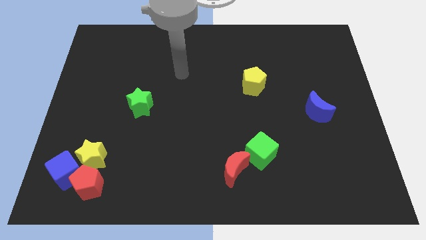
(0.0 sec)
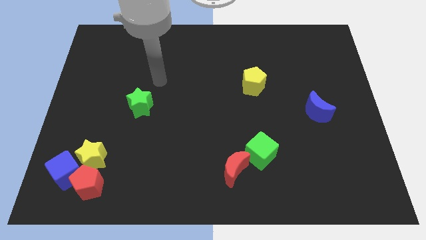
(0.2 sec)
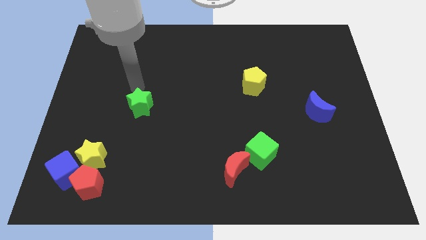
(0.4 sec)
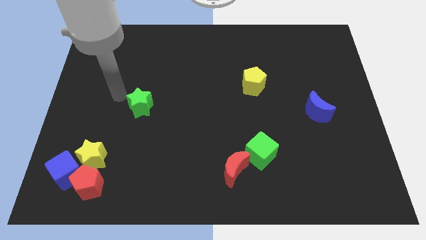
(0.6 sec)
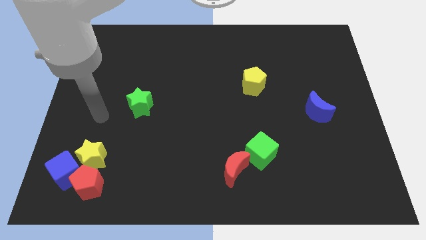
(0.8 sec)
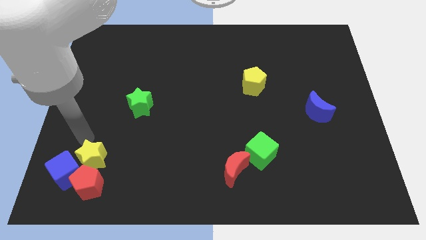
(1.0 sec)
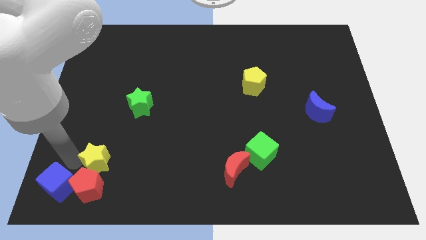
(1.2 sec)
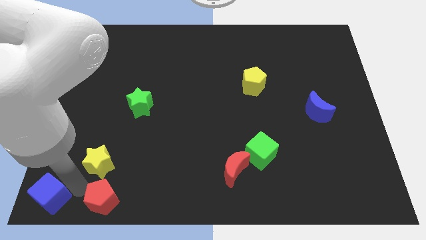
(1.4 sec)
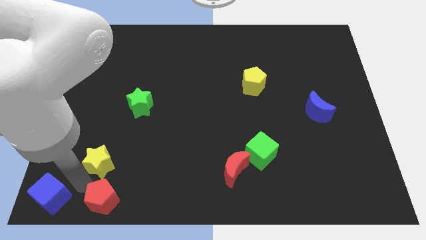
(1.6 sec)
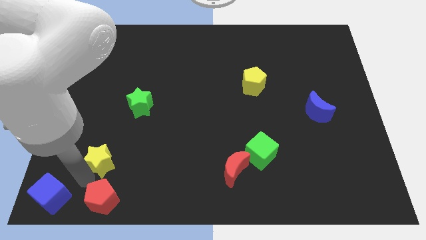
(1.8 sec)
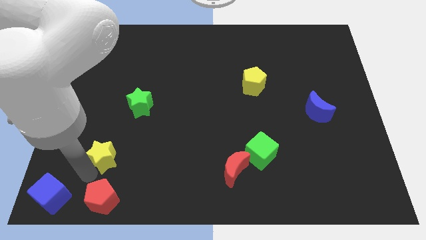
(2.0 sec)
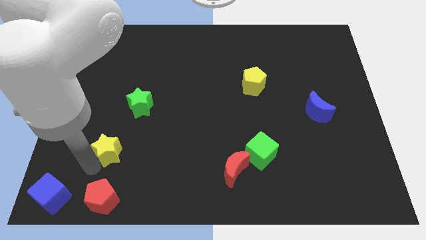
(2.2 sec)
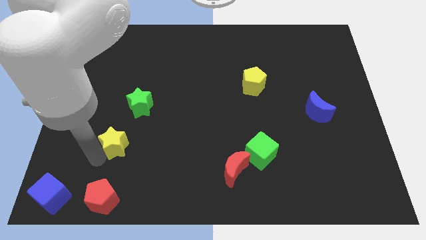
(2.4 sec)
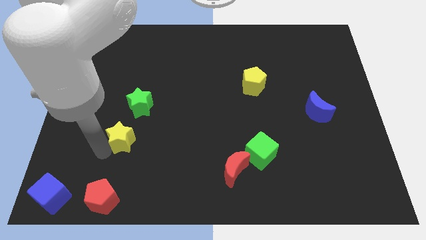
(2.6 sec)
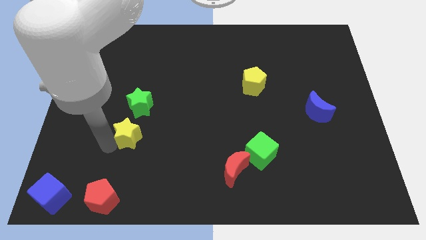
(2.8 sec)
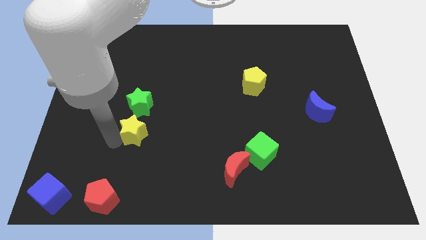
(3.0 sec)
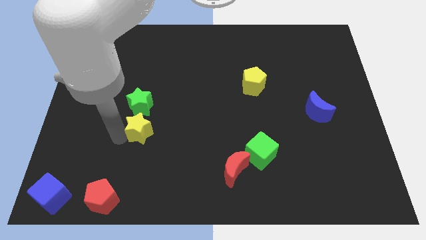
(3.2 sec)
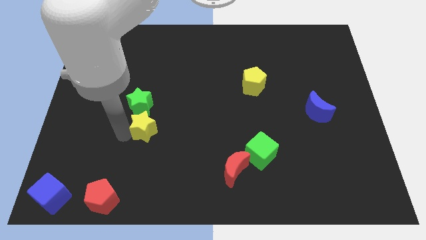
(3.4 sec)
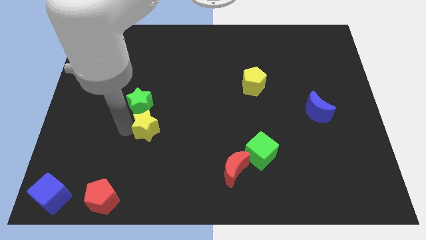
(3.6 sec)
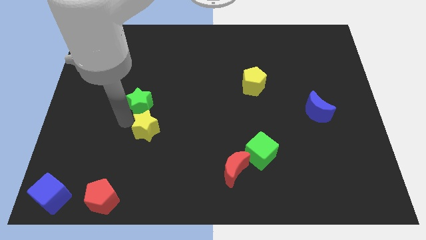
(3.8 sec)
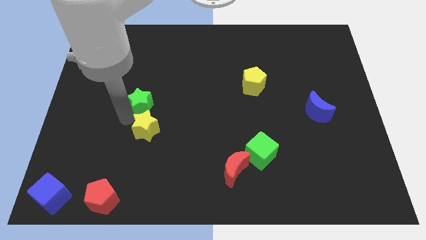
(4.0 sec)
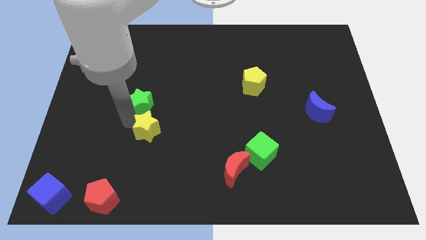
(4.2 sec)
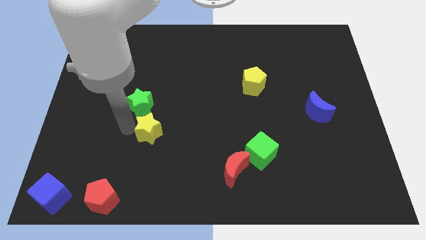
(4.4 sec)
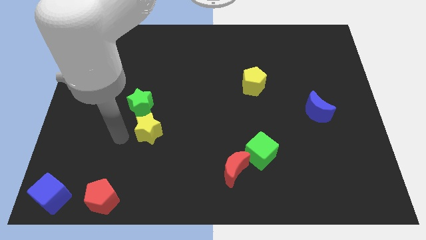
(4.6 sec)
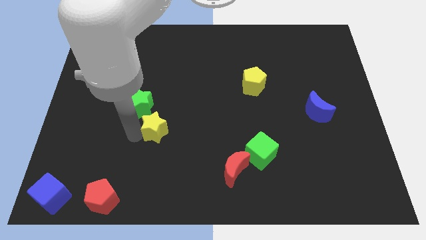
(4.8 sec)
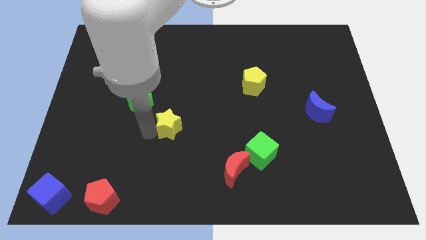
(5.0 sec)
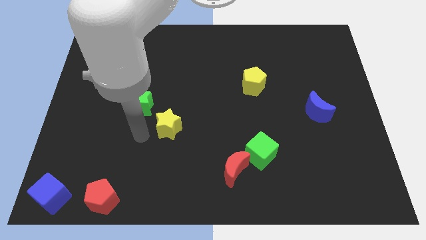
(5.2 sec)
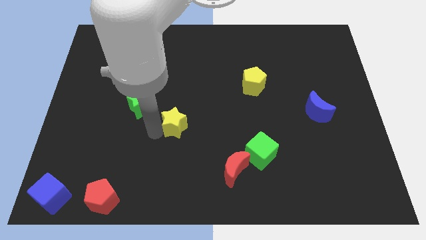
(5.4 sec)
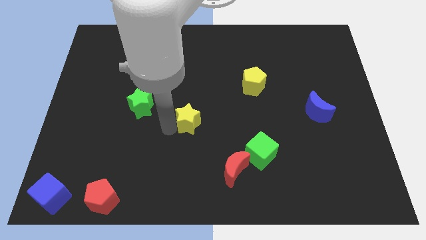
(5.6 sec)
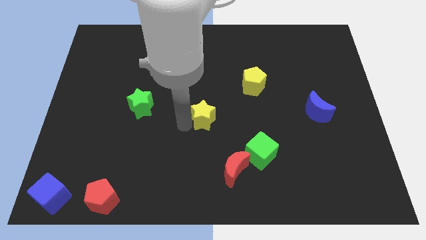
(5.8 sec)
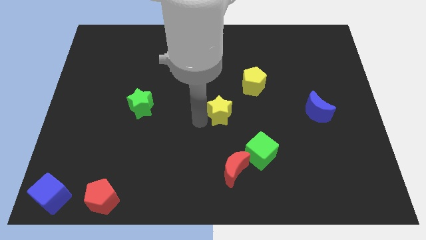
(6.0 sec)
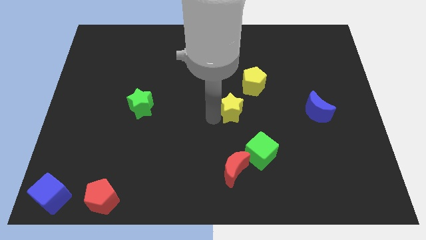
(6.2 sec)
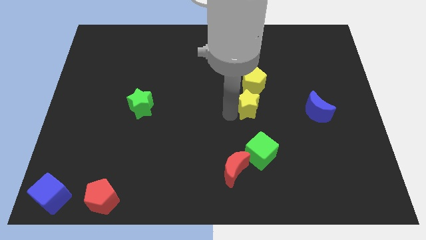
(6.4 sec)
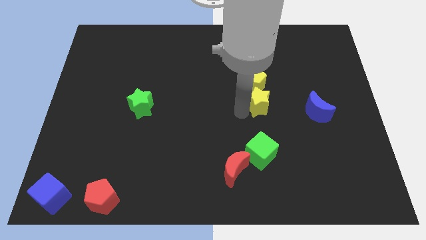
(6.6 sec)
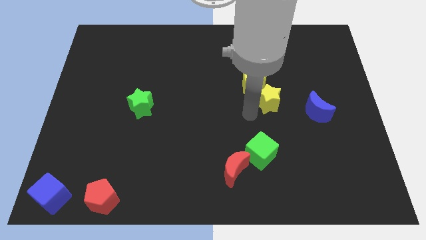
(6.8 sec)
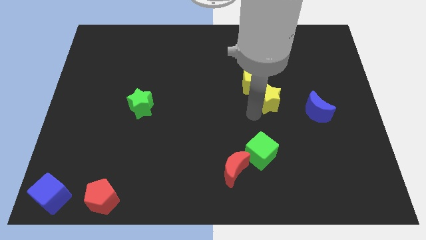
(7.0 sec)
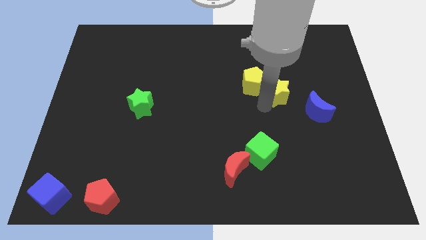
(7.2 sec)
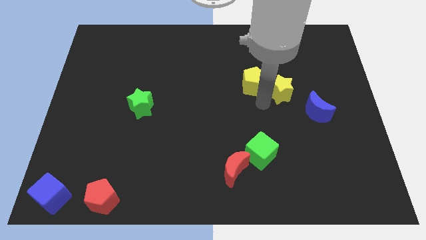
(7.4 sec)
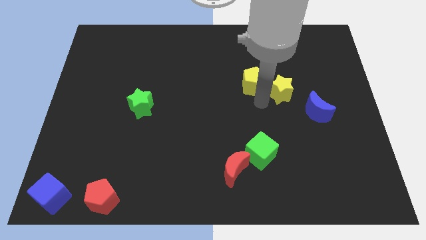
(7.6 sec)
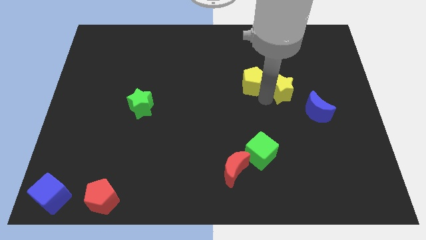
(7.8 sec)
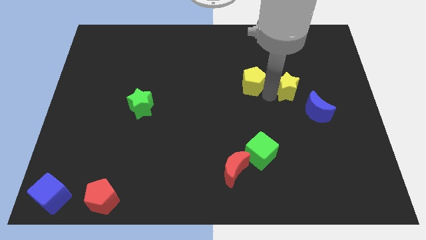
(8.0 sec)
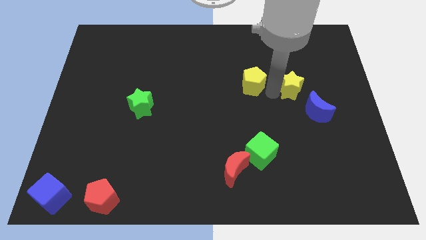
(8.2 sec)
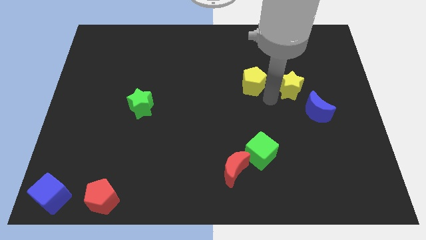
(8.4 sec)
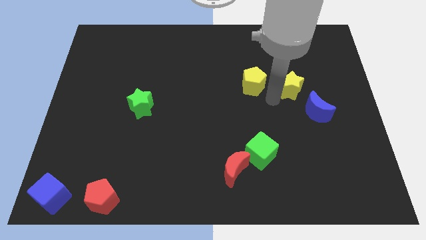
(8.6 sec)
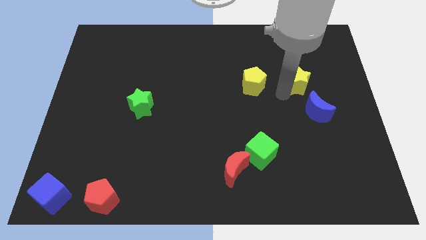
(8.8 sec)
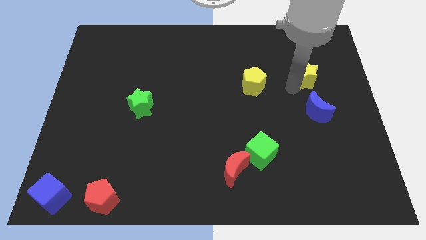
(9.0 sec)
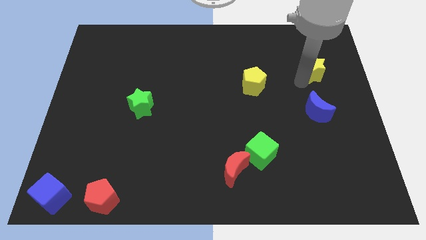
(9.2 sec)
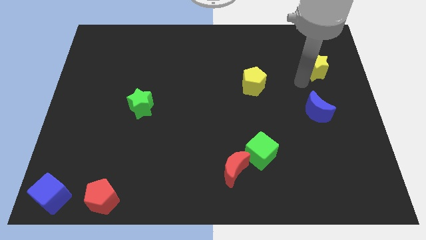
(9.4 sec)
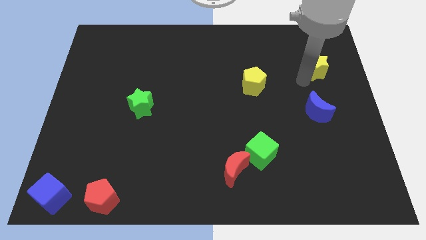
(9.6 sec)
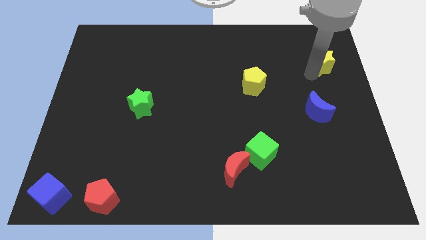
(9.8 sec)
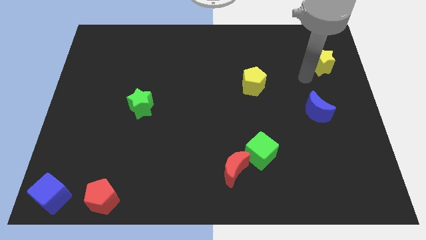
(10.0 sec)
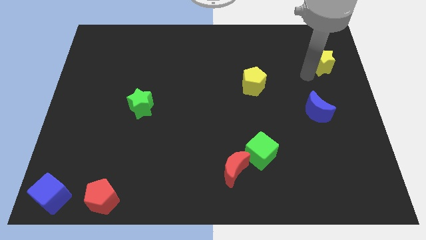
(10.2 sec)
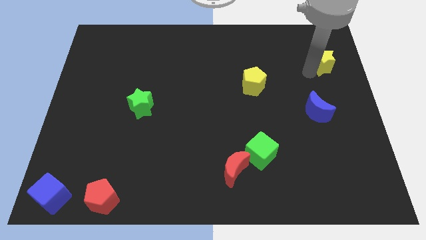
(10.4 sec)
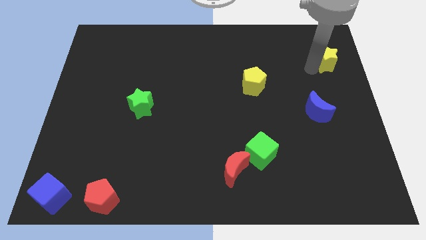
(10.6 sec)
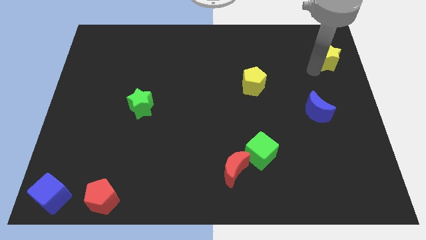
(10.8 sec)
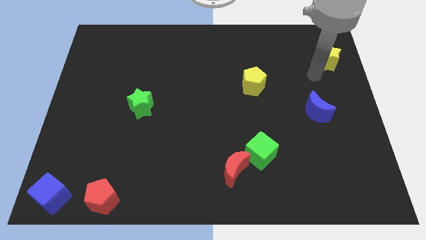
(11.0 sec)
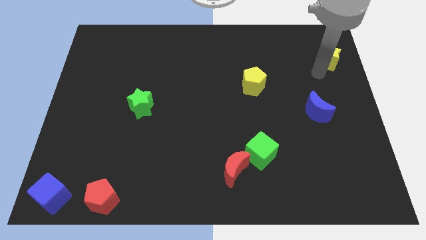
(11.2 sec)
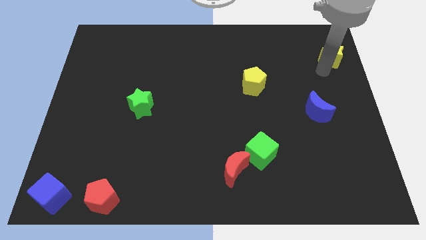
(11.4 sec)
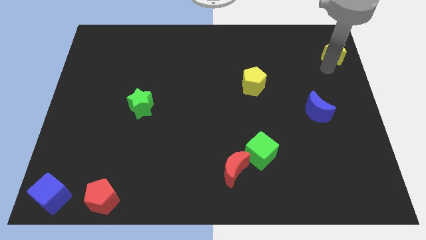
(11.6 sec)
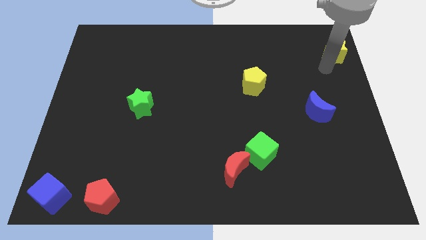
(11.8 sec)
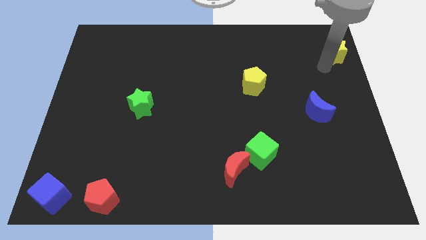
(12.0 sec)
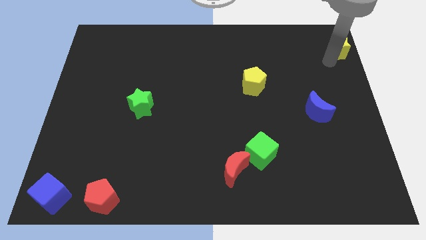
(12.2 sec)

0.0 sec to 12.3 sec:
push the yellow star to the upper right corner
